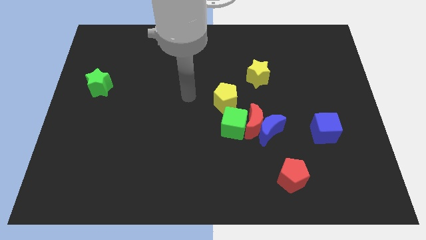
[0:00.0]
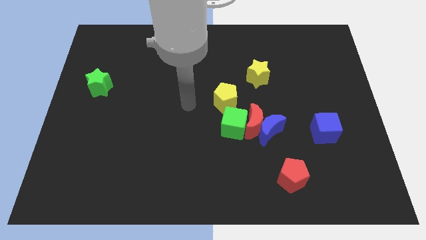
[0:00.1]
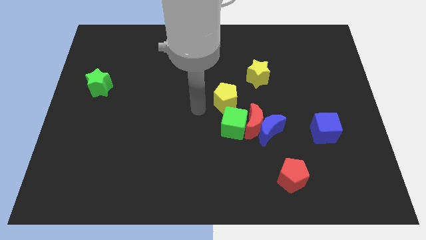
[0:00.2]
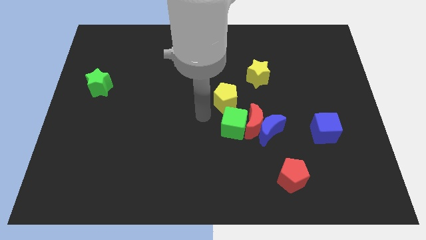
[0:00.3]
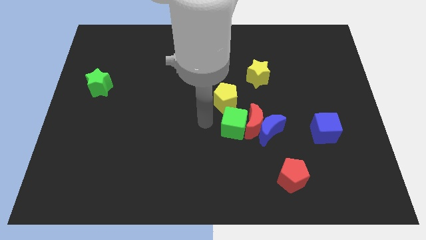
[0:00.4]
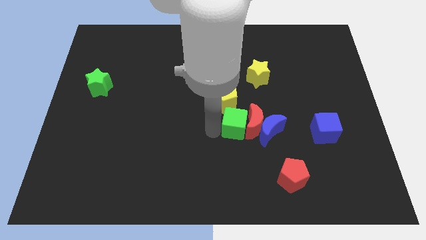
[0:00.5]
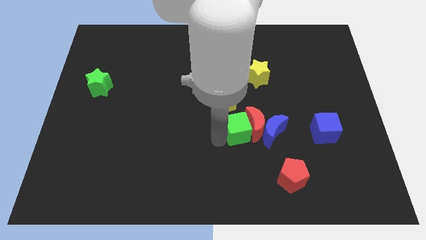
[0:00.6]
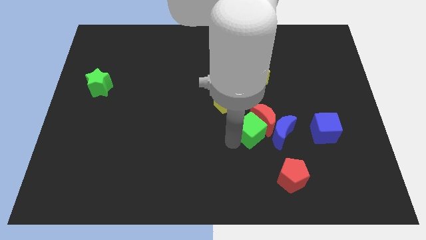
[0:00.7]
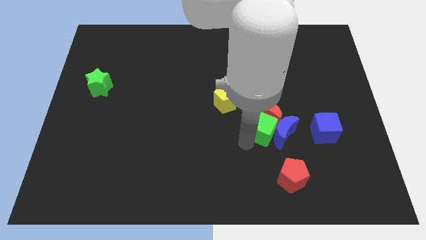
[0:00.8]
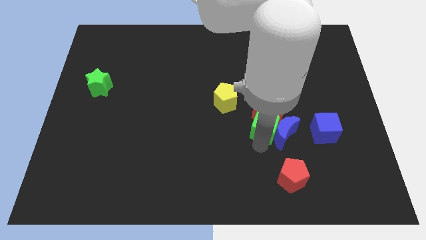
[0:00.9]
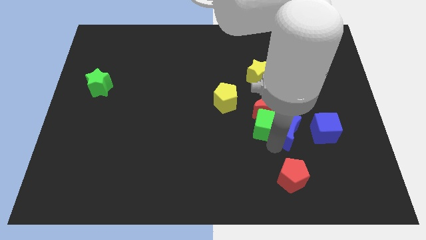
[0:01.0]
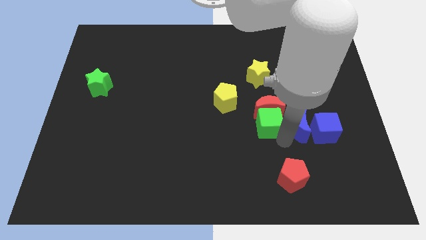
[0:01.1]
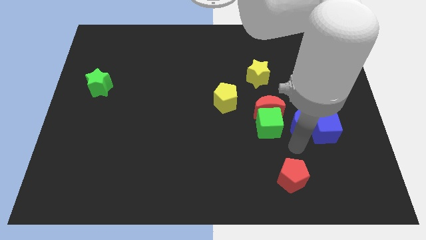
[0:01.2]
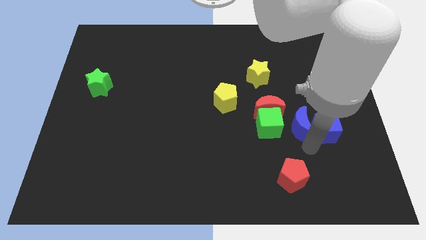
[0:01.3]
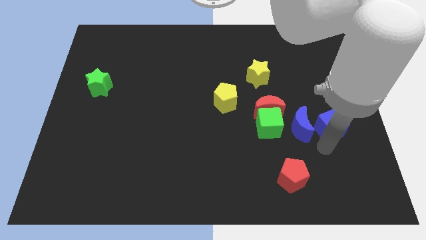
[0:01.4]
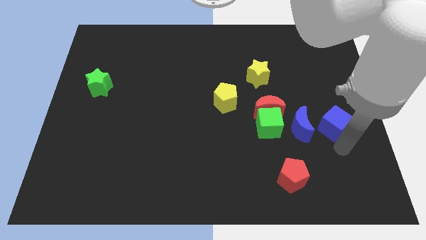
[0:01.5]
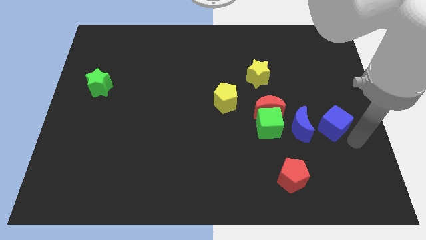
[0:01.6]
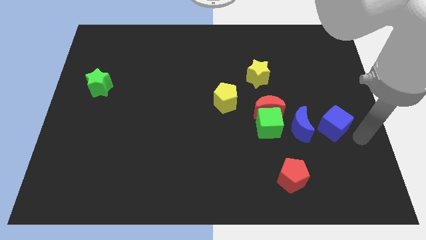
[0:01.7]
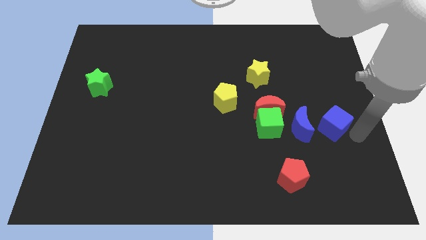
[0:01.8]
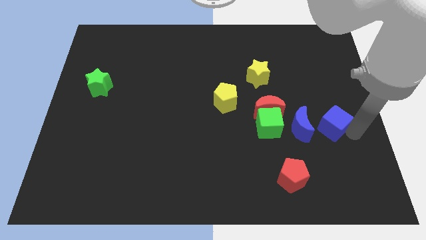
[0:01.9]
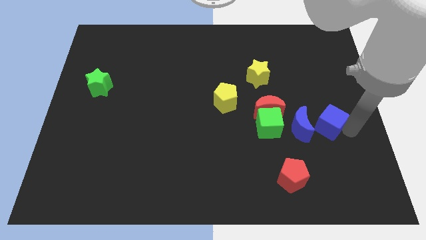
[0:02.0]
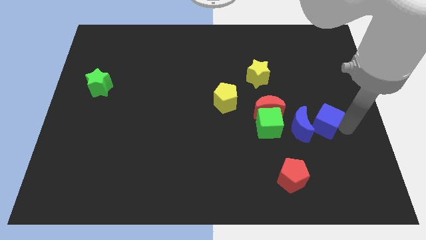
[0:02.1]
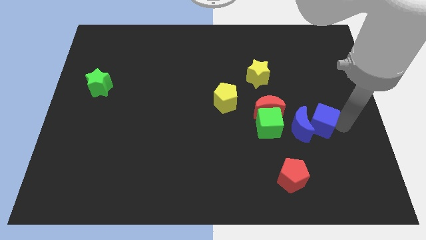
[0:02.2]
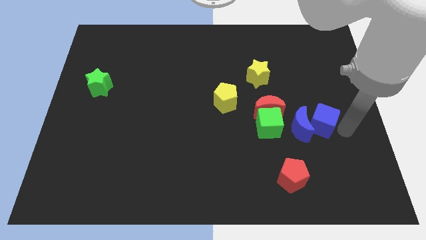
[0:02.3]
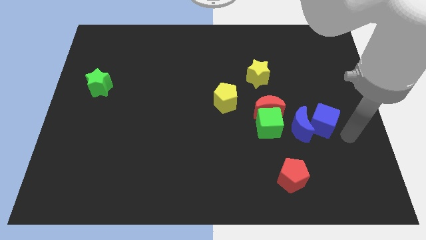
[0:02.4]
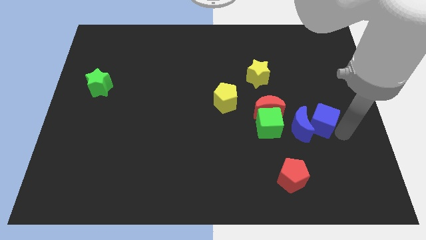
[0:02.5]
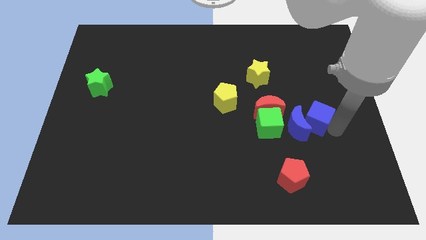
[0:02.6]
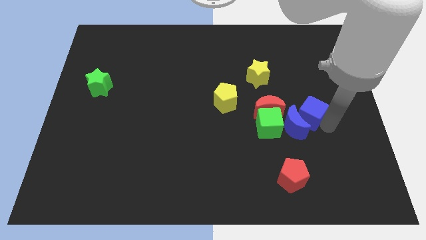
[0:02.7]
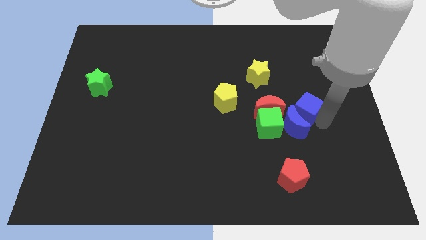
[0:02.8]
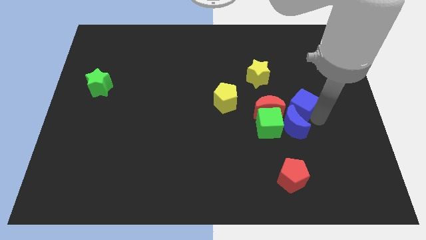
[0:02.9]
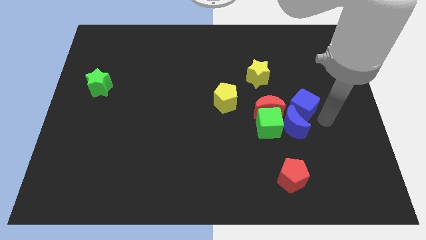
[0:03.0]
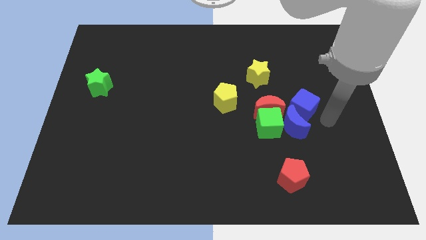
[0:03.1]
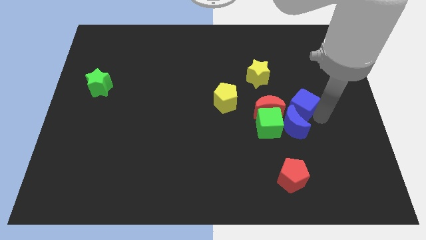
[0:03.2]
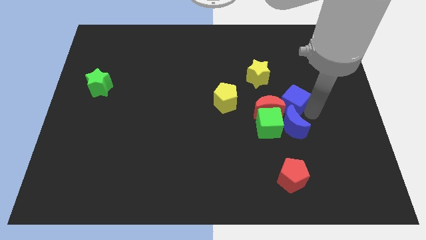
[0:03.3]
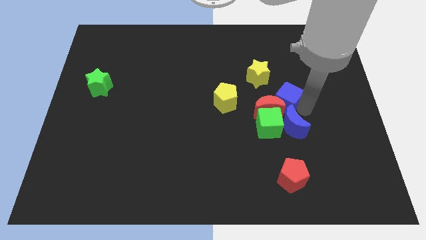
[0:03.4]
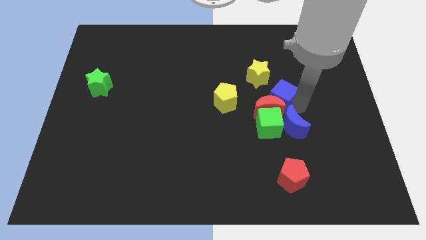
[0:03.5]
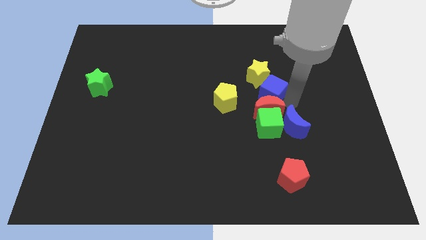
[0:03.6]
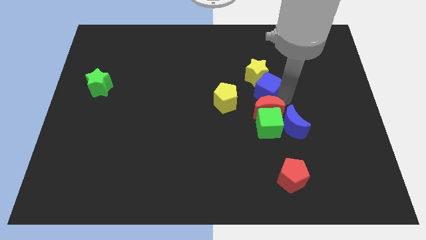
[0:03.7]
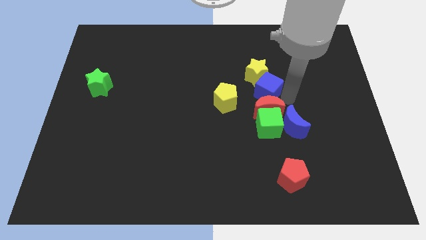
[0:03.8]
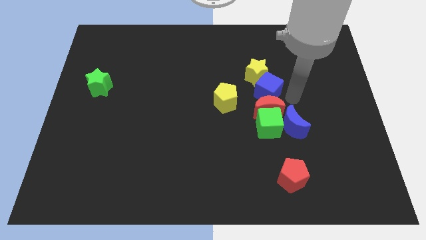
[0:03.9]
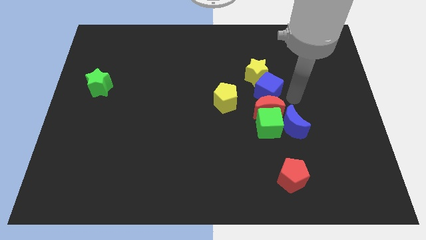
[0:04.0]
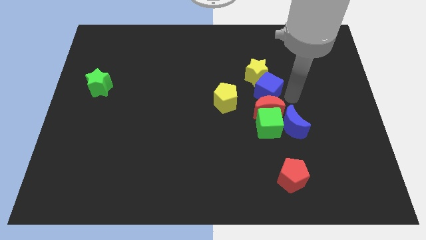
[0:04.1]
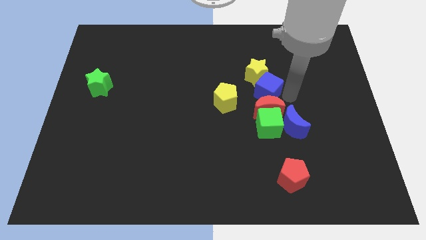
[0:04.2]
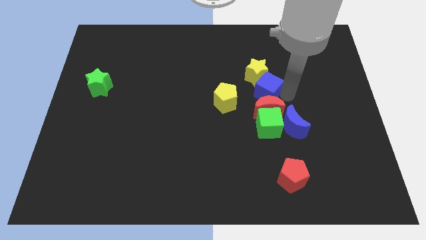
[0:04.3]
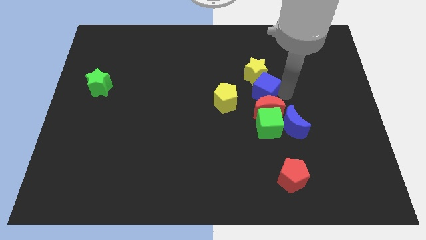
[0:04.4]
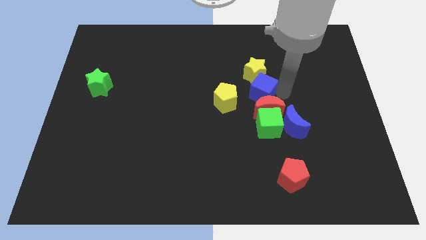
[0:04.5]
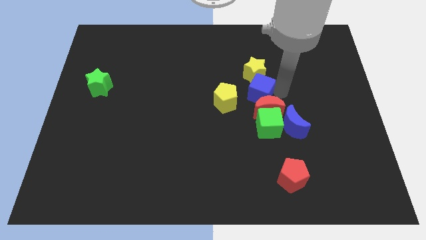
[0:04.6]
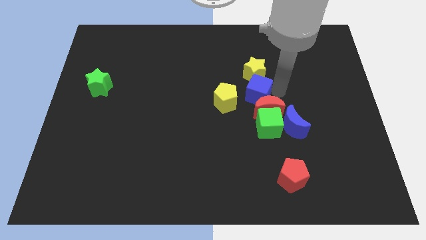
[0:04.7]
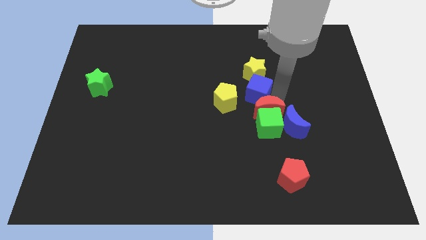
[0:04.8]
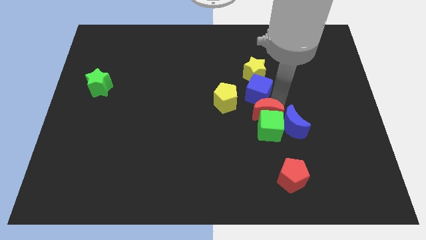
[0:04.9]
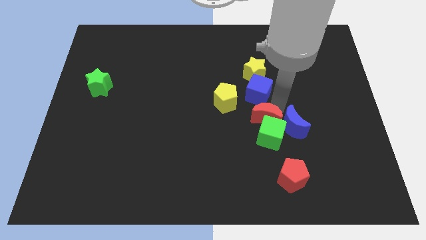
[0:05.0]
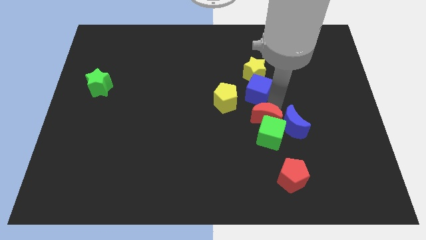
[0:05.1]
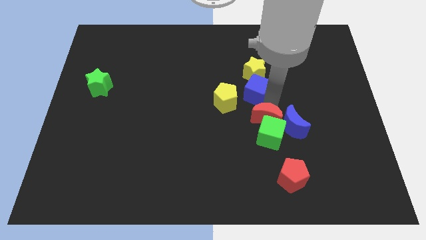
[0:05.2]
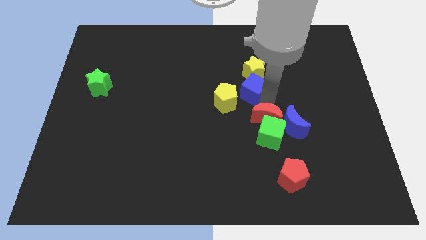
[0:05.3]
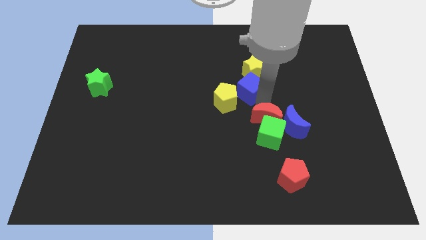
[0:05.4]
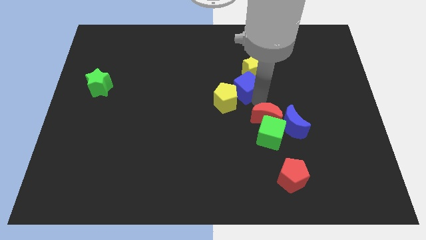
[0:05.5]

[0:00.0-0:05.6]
slide the blue cube upwards and then left

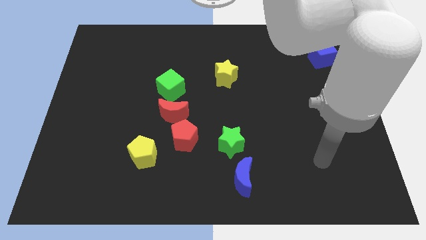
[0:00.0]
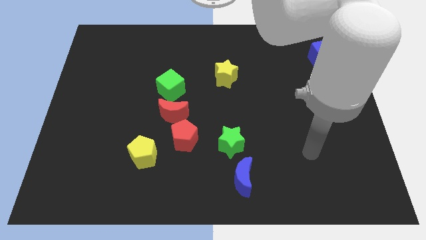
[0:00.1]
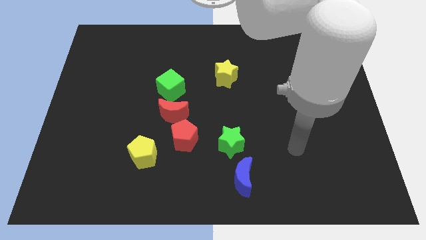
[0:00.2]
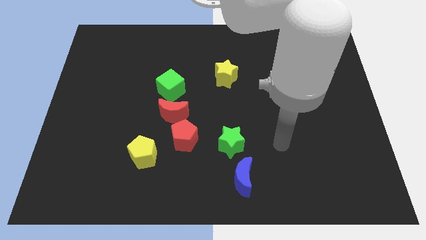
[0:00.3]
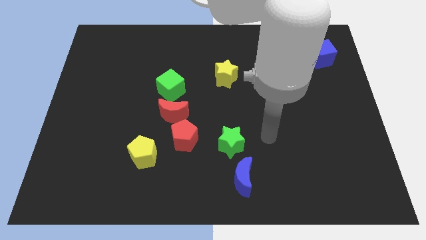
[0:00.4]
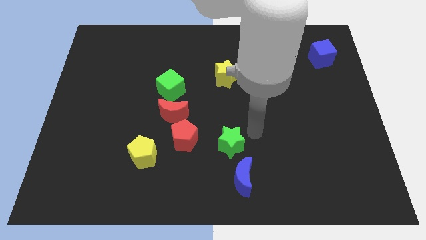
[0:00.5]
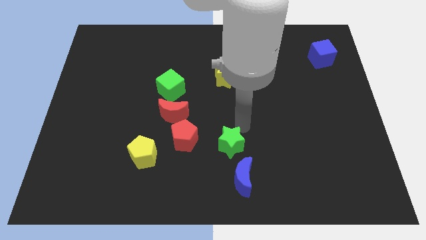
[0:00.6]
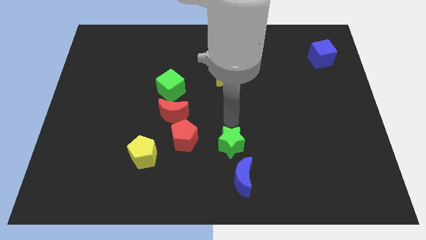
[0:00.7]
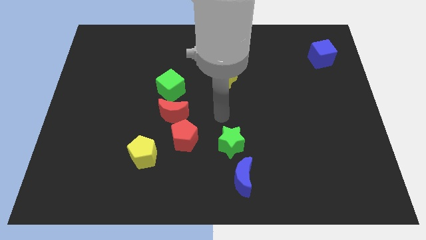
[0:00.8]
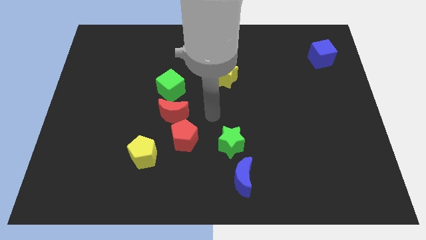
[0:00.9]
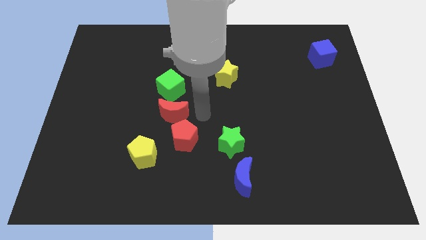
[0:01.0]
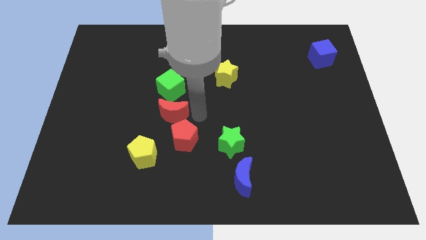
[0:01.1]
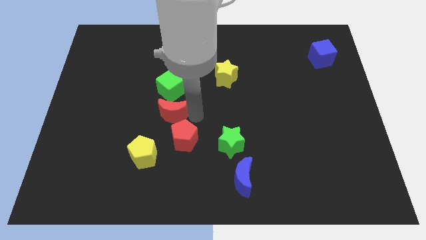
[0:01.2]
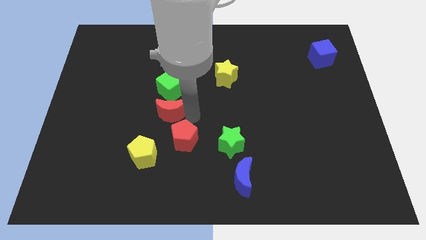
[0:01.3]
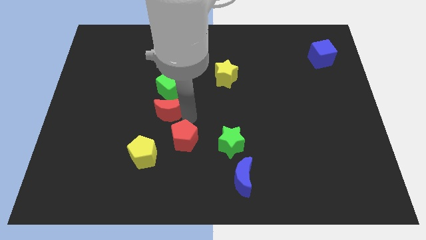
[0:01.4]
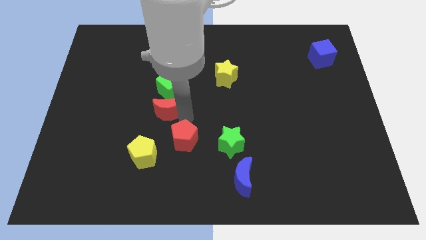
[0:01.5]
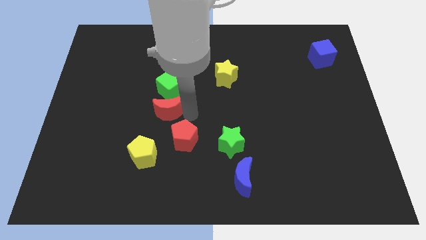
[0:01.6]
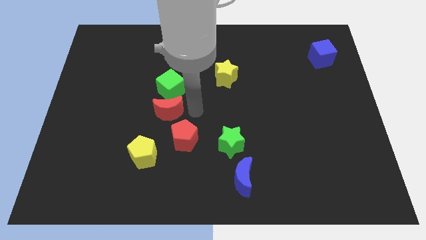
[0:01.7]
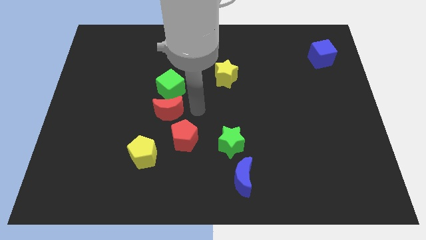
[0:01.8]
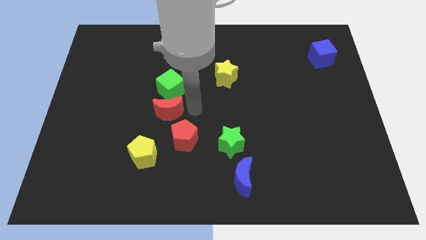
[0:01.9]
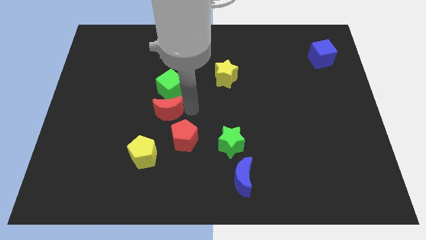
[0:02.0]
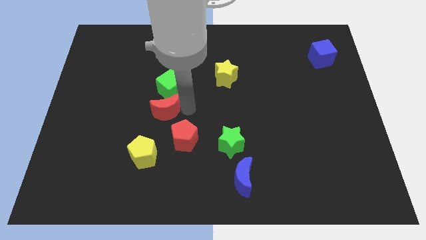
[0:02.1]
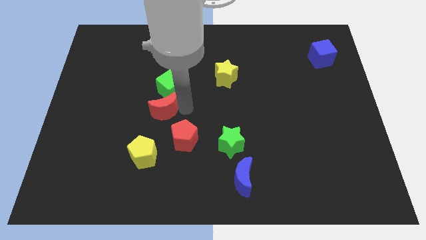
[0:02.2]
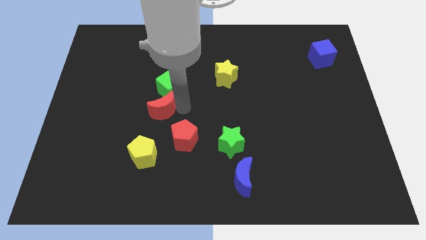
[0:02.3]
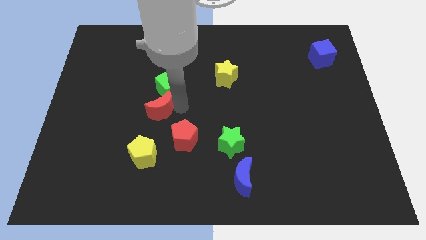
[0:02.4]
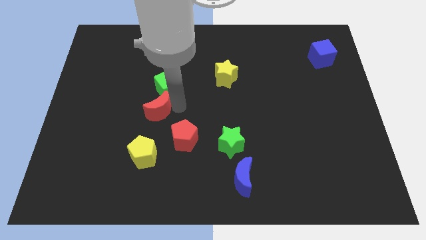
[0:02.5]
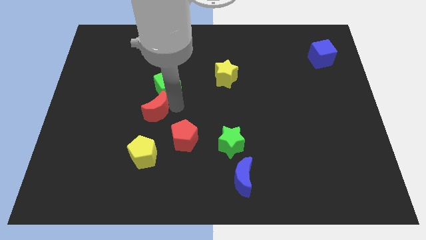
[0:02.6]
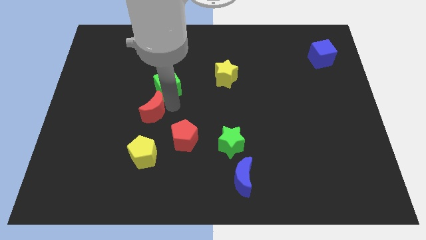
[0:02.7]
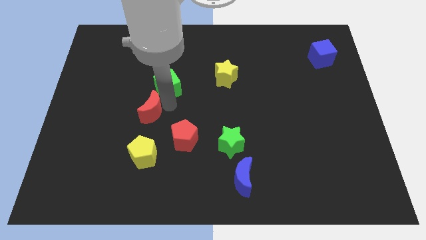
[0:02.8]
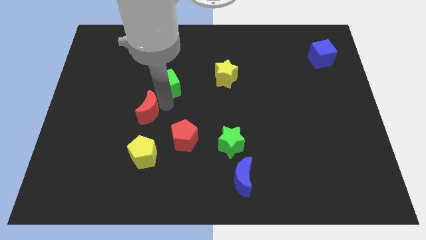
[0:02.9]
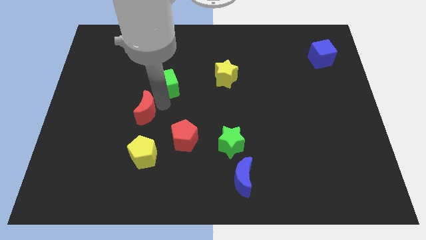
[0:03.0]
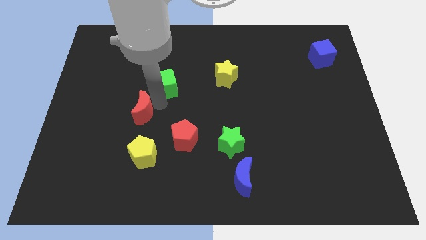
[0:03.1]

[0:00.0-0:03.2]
slightly slide the red moon to the left
